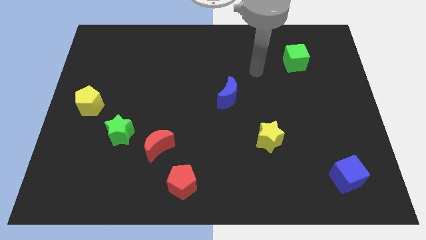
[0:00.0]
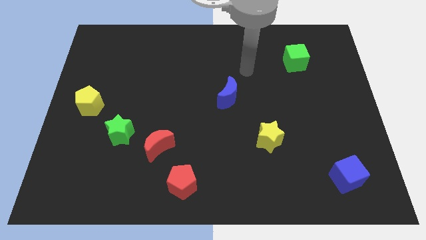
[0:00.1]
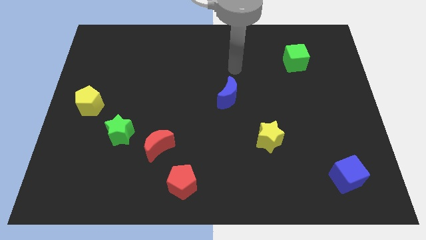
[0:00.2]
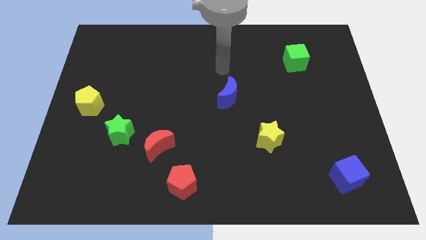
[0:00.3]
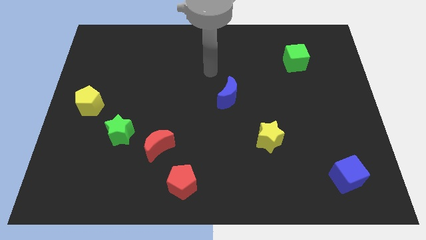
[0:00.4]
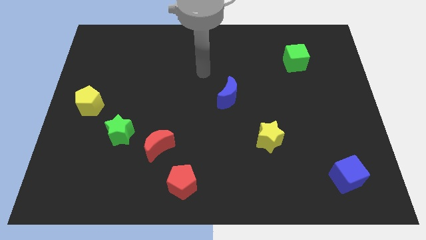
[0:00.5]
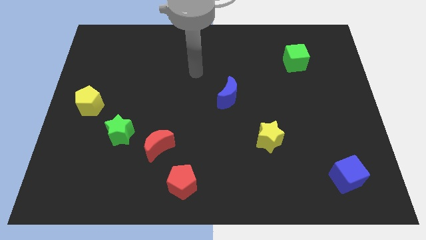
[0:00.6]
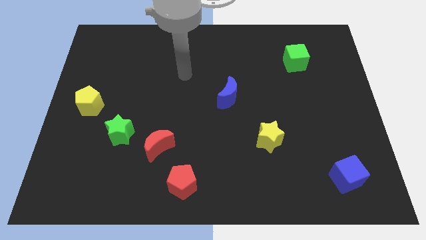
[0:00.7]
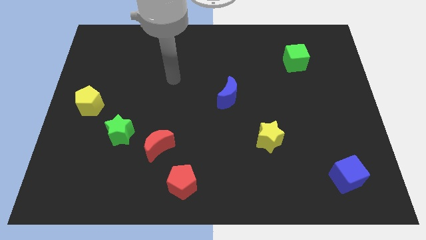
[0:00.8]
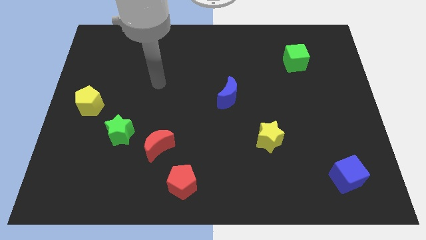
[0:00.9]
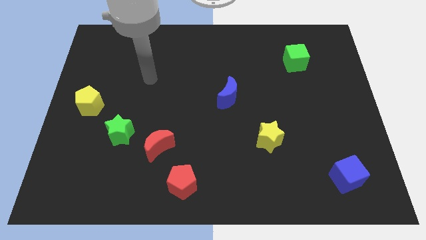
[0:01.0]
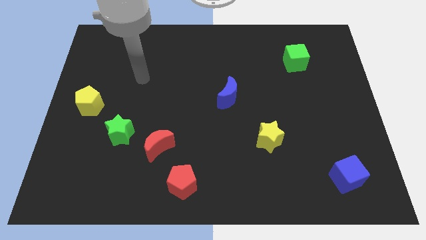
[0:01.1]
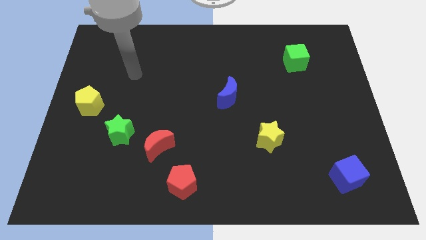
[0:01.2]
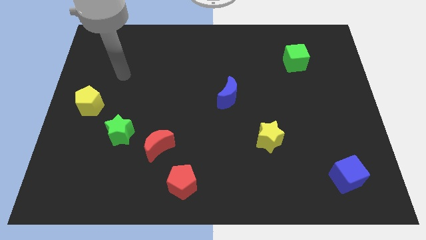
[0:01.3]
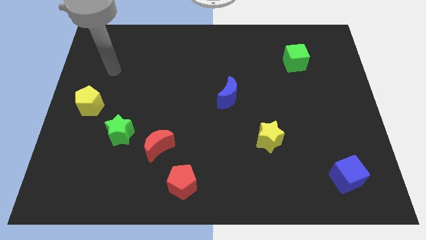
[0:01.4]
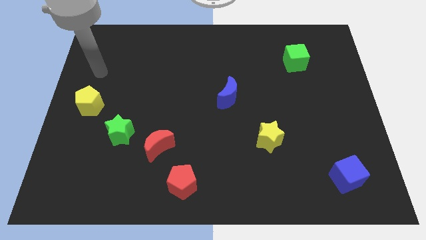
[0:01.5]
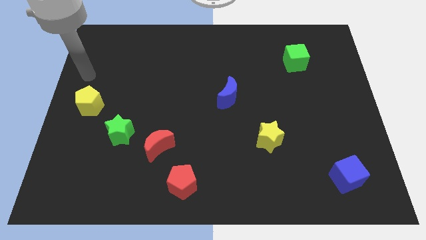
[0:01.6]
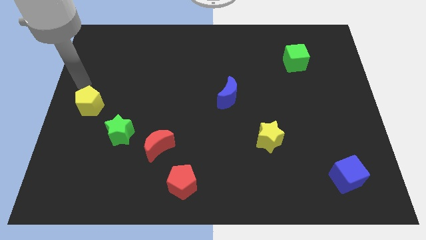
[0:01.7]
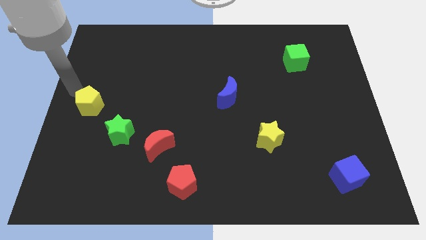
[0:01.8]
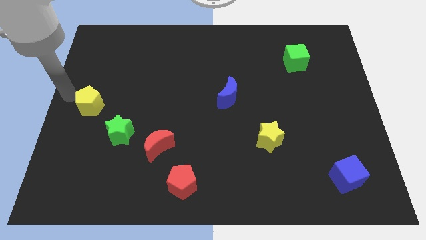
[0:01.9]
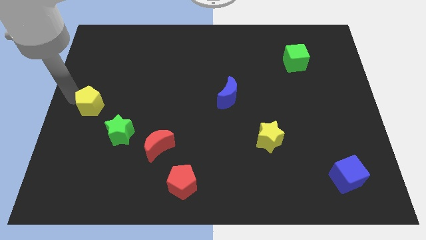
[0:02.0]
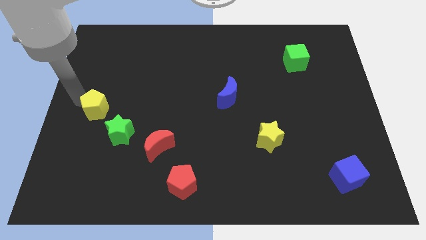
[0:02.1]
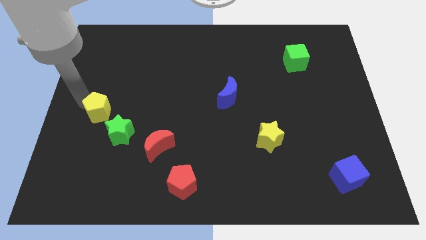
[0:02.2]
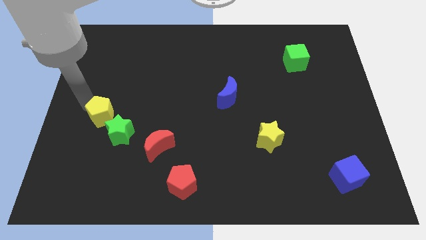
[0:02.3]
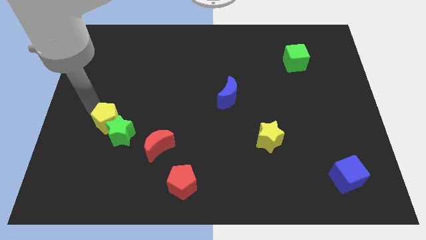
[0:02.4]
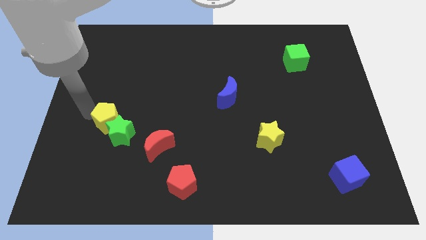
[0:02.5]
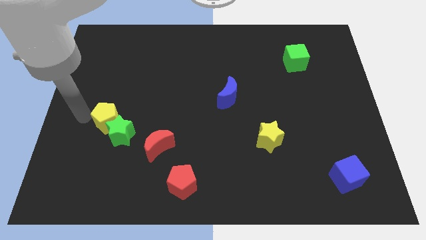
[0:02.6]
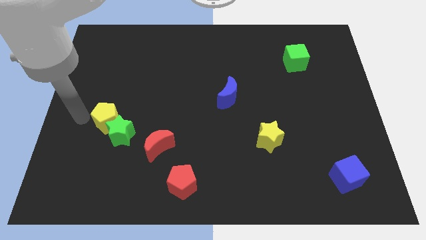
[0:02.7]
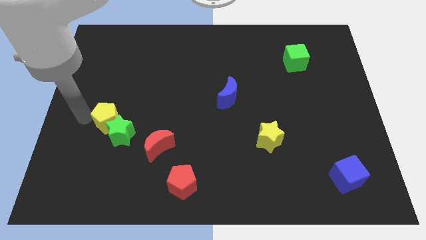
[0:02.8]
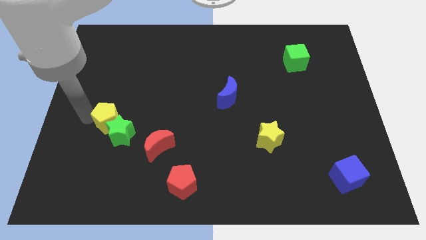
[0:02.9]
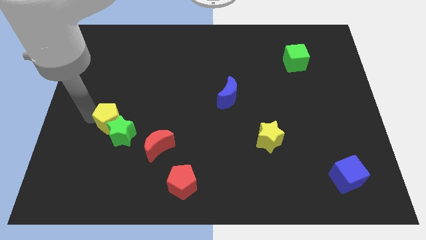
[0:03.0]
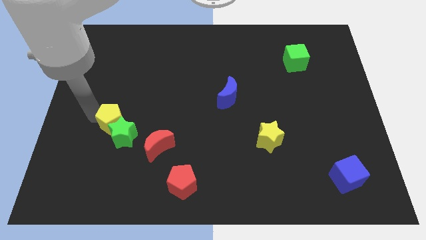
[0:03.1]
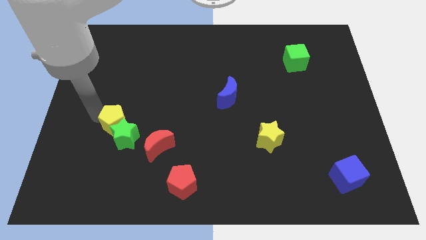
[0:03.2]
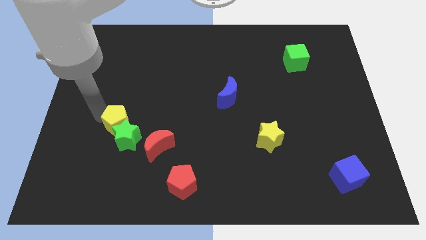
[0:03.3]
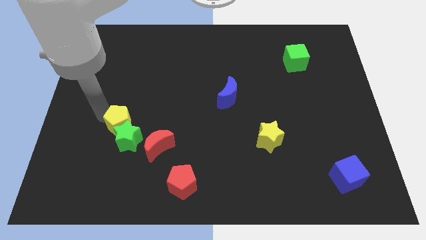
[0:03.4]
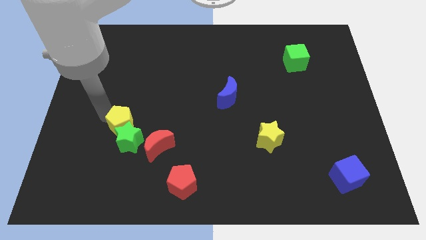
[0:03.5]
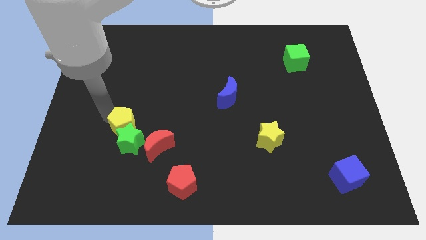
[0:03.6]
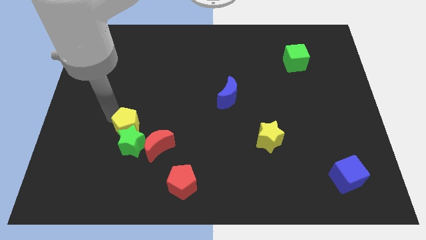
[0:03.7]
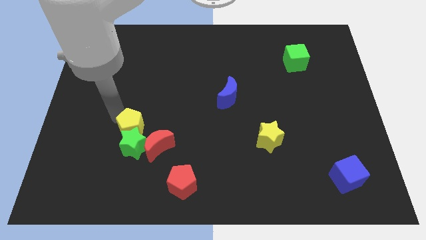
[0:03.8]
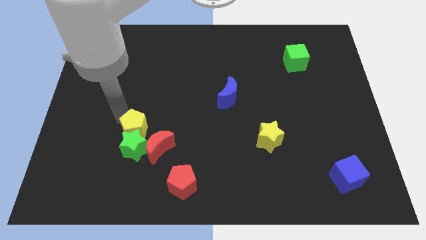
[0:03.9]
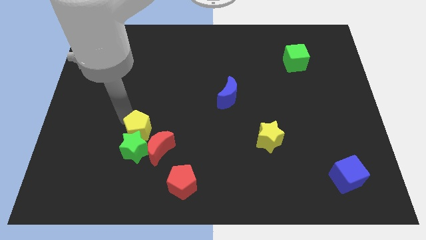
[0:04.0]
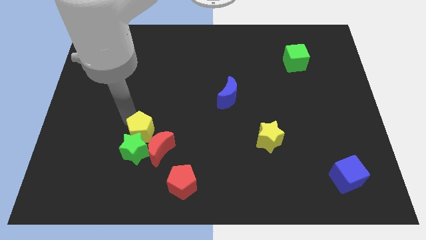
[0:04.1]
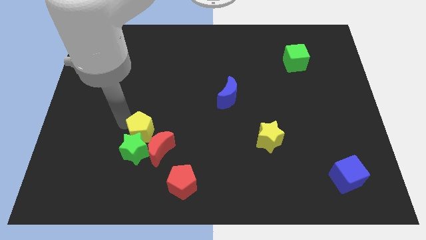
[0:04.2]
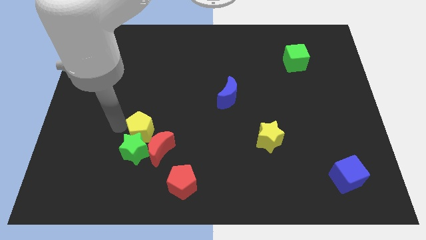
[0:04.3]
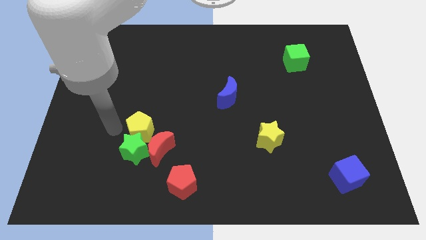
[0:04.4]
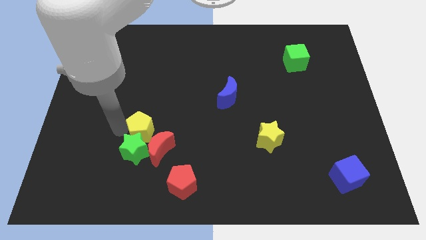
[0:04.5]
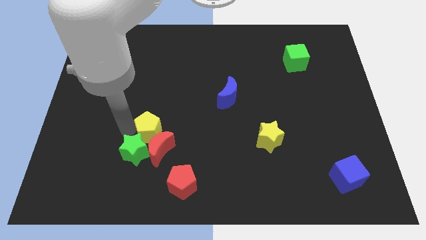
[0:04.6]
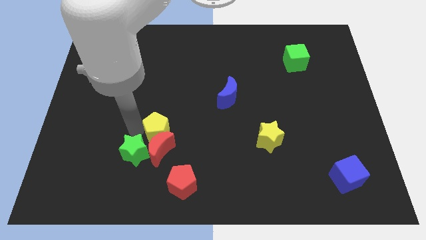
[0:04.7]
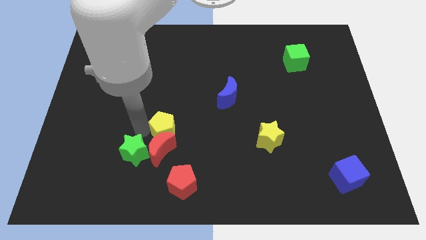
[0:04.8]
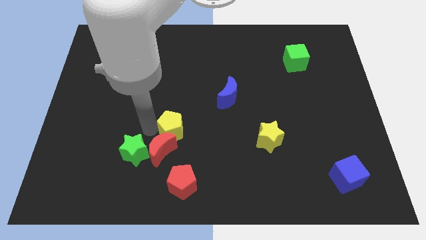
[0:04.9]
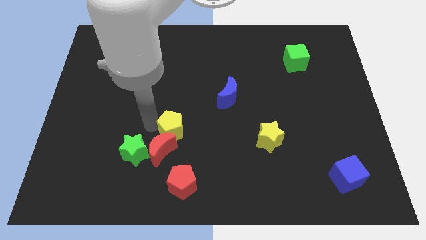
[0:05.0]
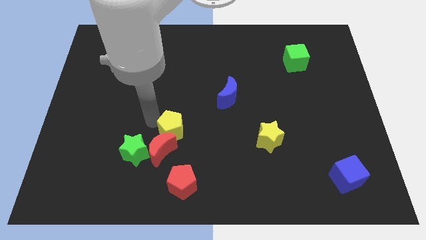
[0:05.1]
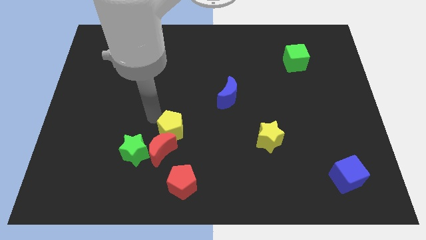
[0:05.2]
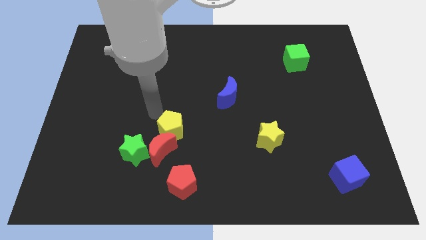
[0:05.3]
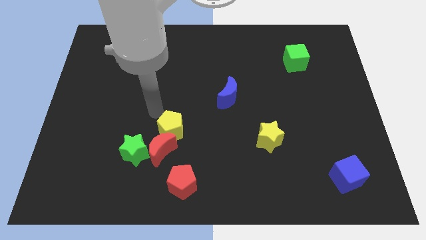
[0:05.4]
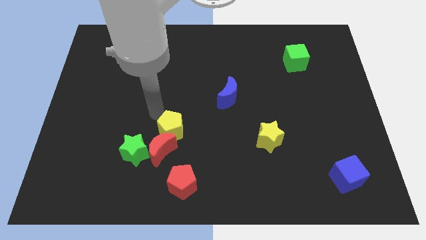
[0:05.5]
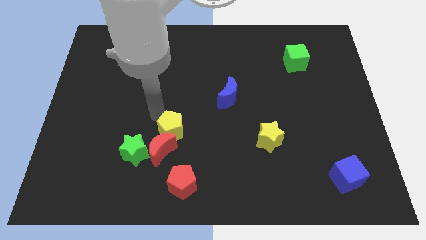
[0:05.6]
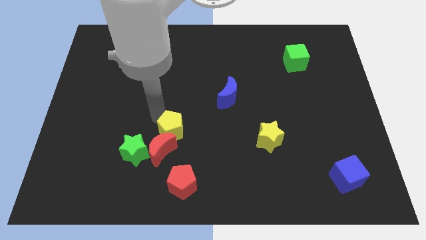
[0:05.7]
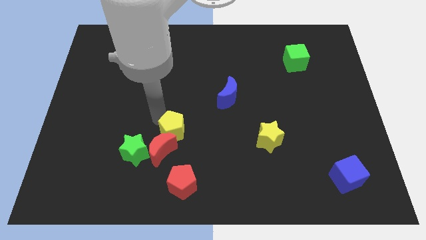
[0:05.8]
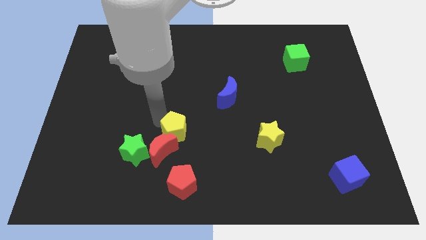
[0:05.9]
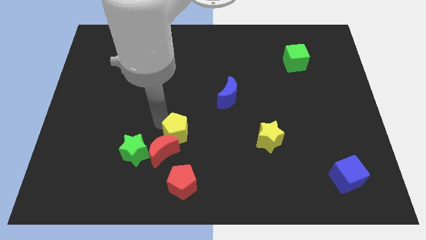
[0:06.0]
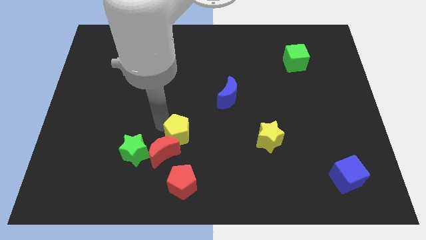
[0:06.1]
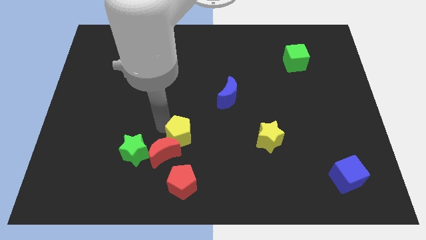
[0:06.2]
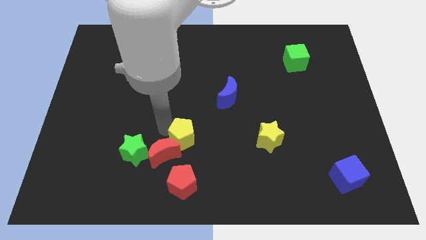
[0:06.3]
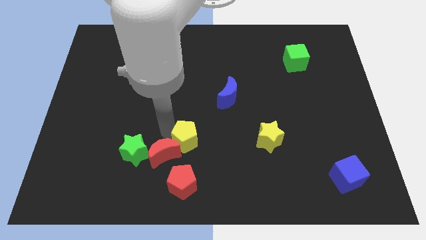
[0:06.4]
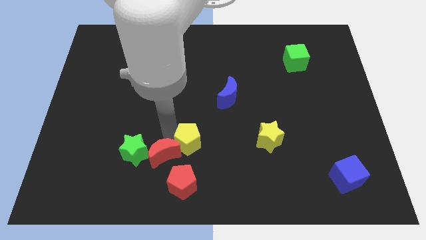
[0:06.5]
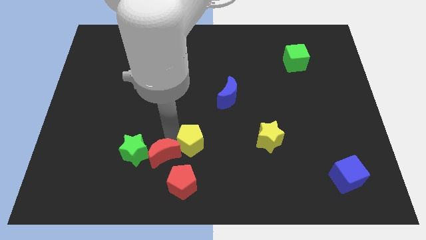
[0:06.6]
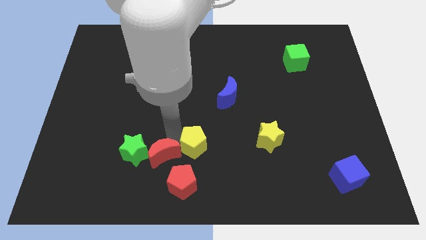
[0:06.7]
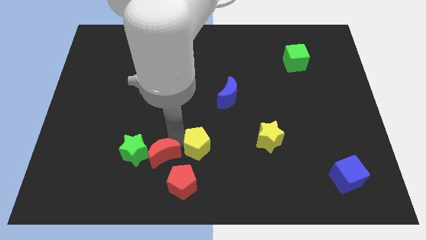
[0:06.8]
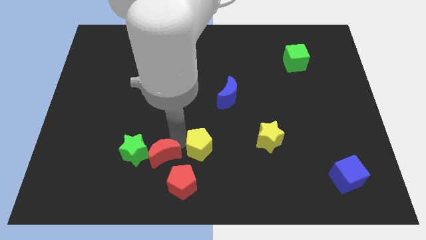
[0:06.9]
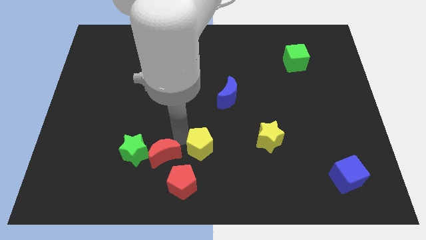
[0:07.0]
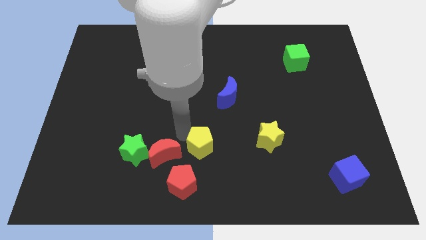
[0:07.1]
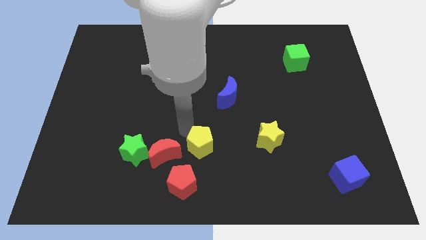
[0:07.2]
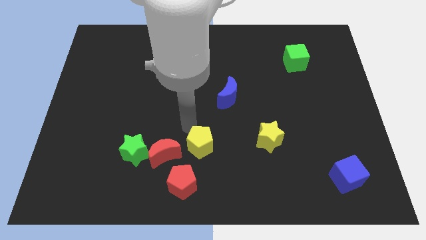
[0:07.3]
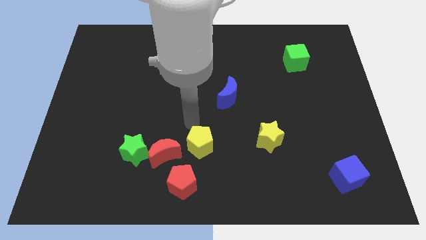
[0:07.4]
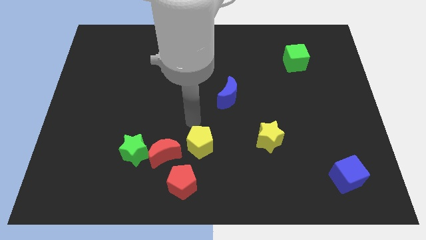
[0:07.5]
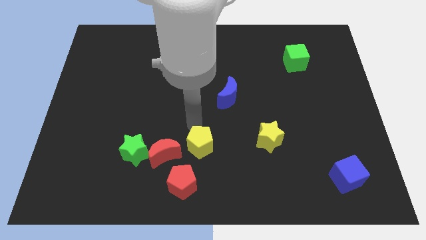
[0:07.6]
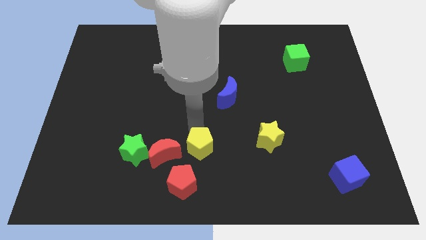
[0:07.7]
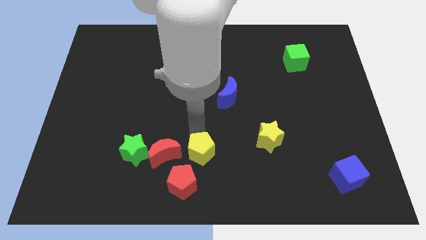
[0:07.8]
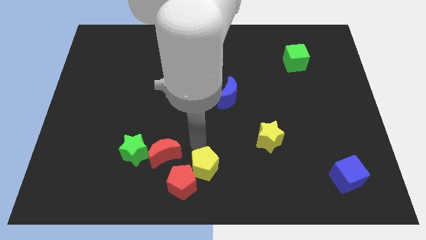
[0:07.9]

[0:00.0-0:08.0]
move the yellow pentagon to the right of the red pentagon

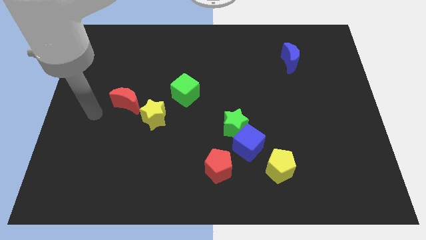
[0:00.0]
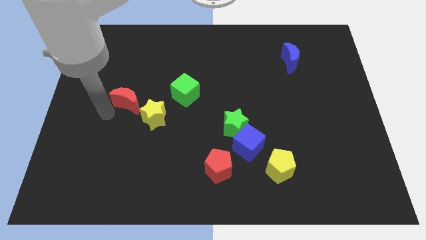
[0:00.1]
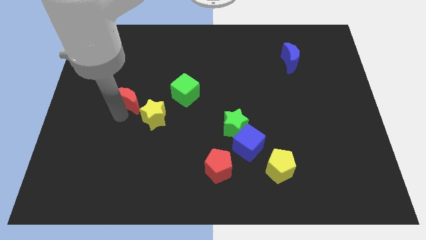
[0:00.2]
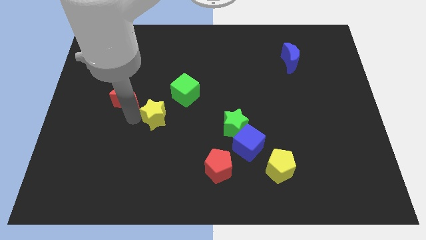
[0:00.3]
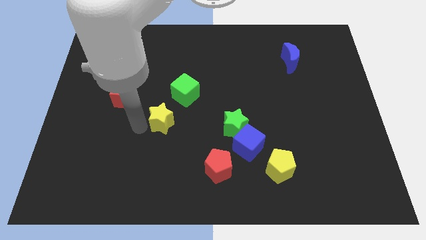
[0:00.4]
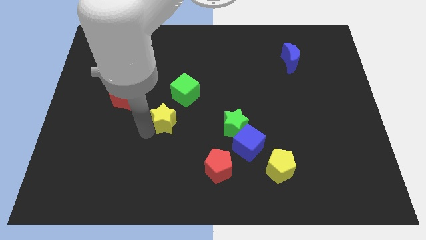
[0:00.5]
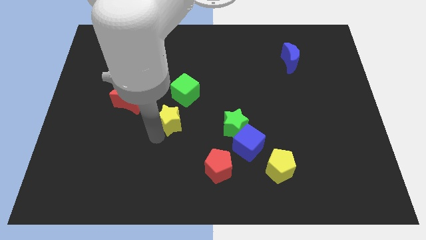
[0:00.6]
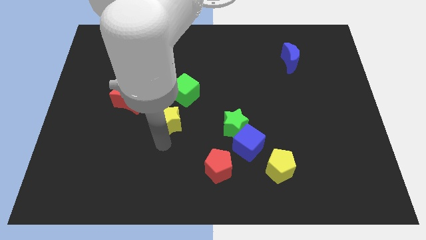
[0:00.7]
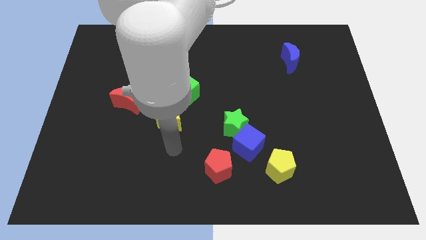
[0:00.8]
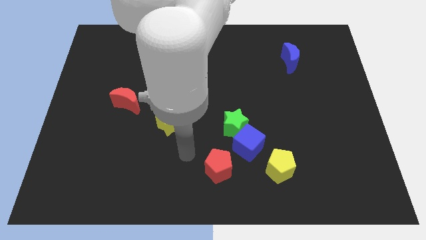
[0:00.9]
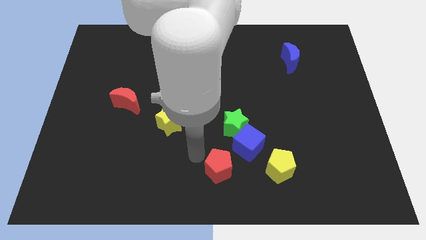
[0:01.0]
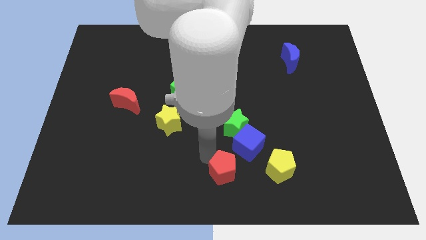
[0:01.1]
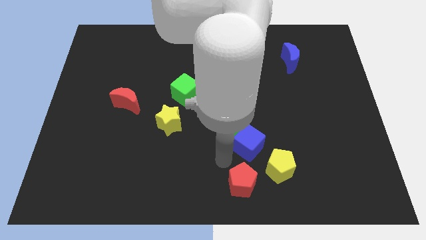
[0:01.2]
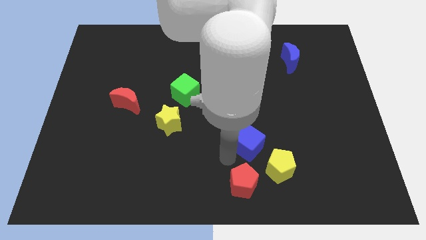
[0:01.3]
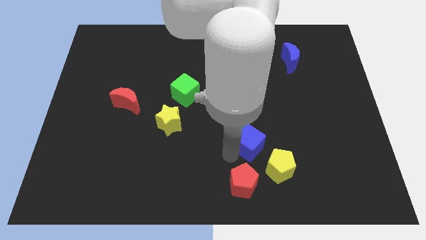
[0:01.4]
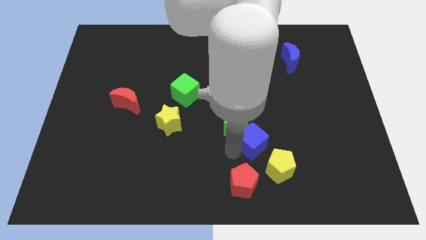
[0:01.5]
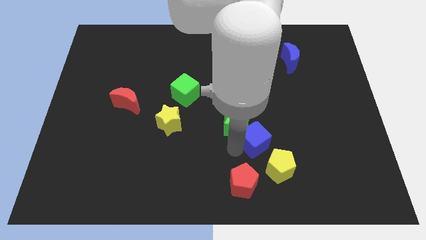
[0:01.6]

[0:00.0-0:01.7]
move the blue cube to the top of the yellow pentagon
